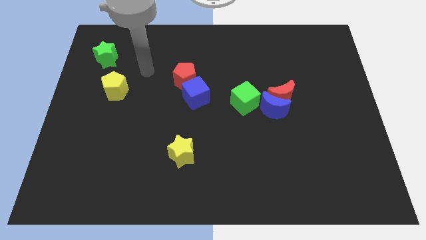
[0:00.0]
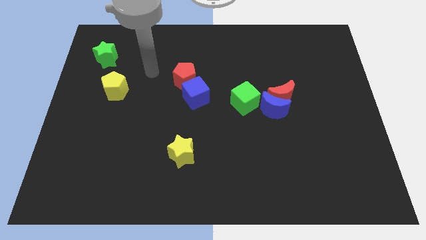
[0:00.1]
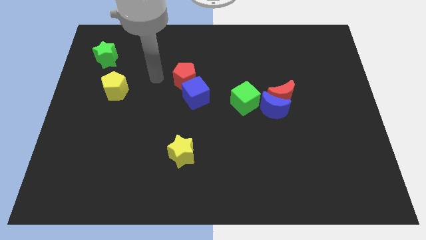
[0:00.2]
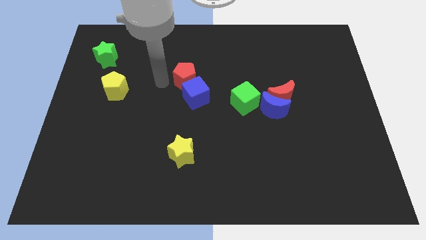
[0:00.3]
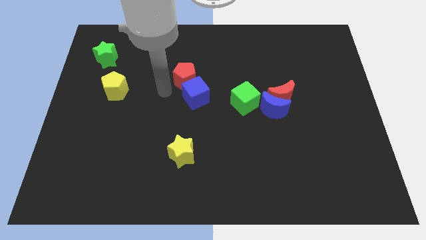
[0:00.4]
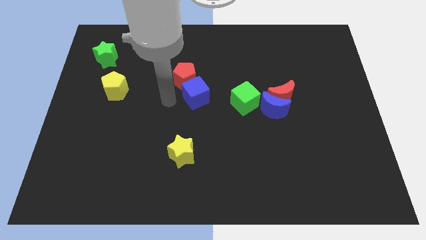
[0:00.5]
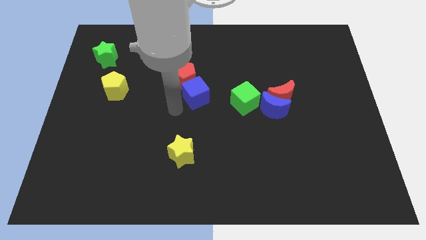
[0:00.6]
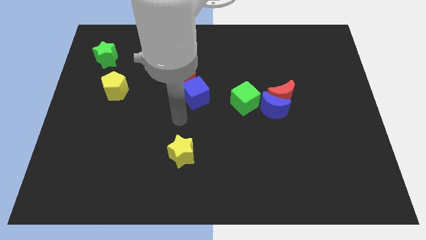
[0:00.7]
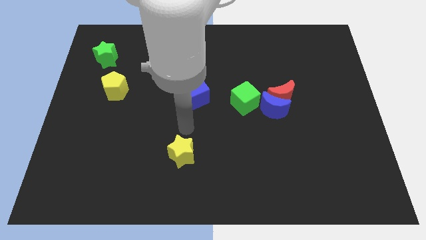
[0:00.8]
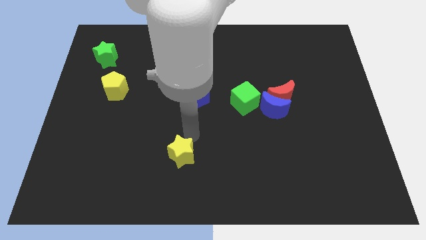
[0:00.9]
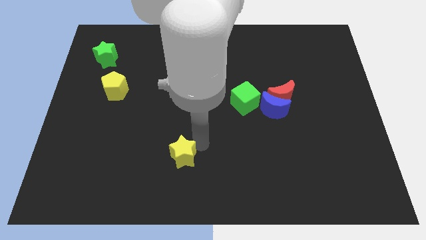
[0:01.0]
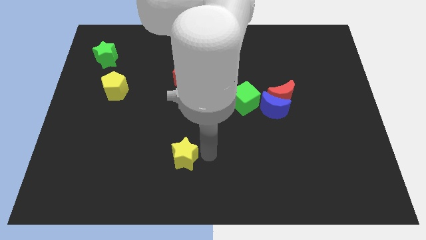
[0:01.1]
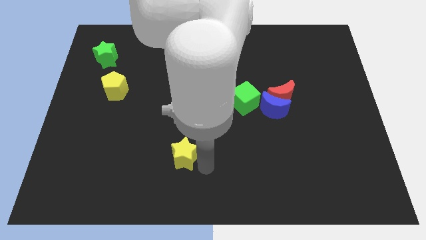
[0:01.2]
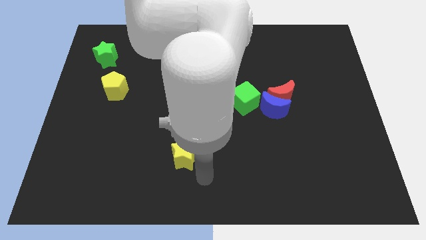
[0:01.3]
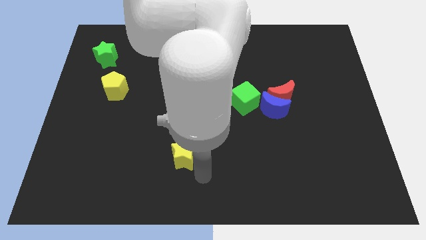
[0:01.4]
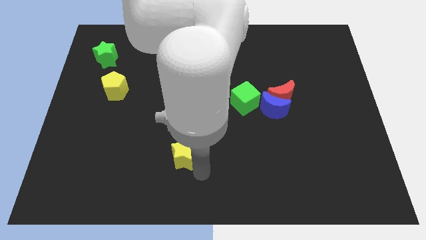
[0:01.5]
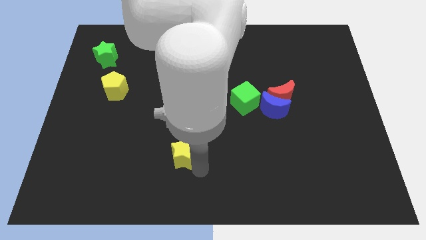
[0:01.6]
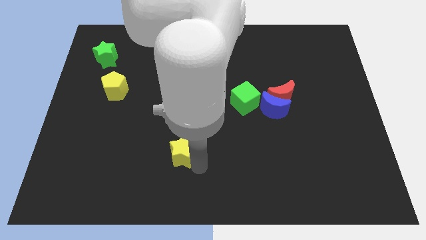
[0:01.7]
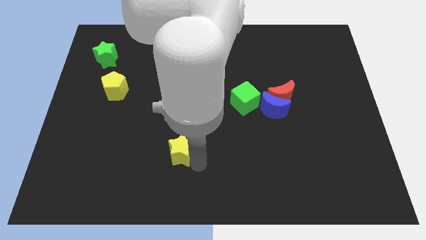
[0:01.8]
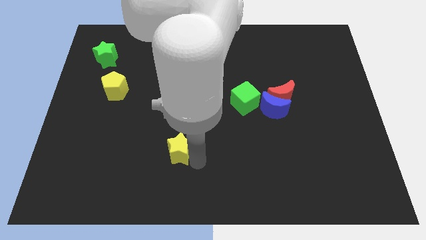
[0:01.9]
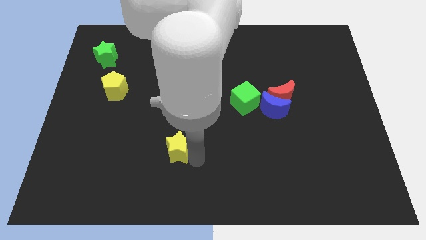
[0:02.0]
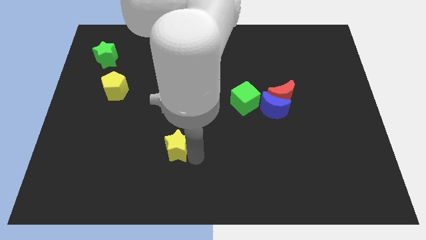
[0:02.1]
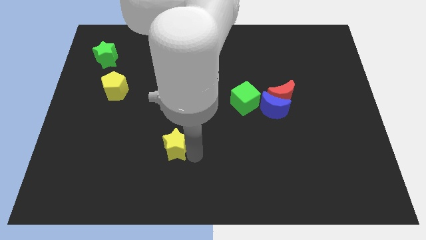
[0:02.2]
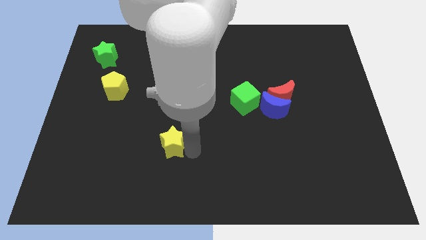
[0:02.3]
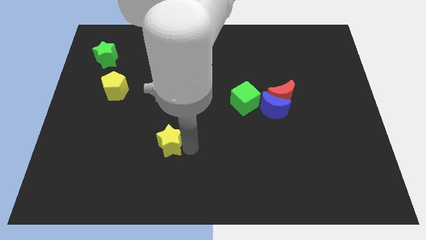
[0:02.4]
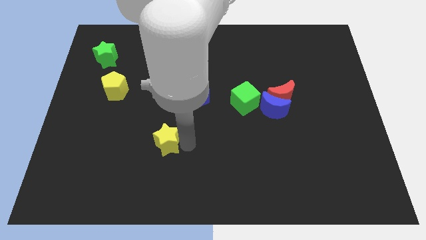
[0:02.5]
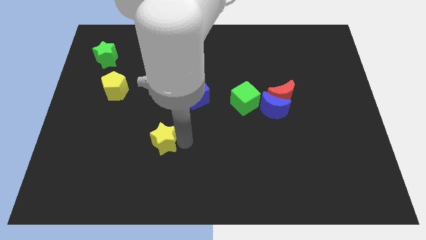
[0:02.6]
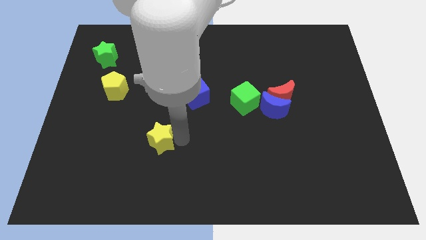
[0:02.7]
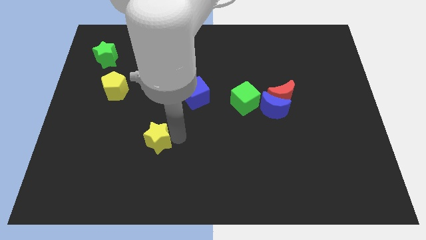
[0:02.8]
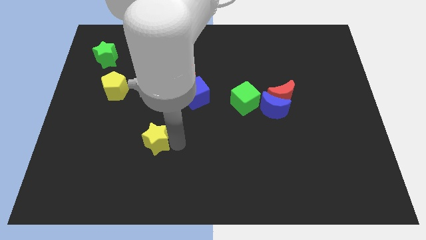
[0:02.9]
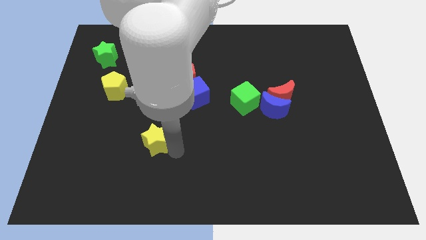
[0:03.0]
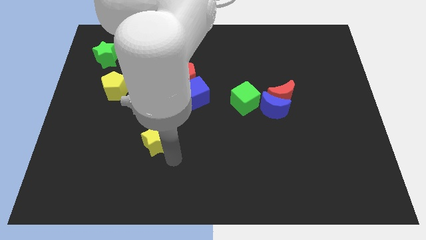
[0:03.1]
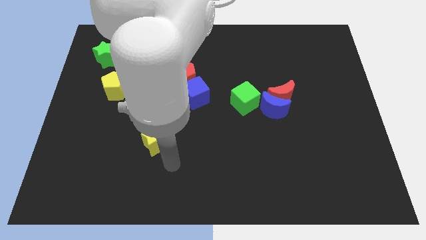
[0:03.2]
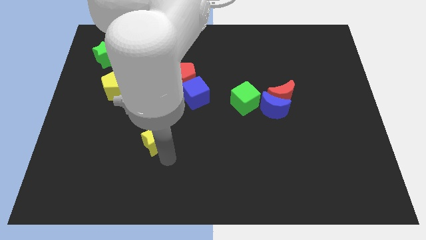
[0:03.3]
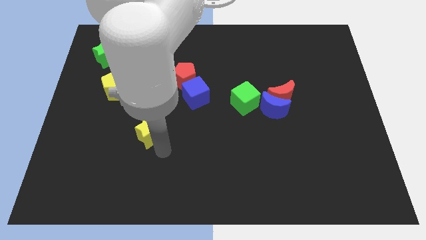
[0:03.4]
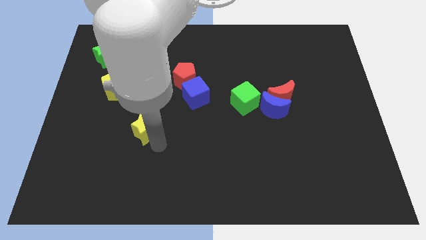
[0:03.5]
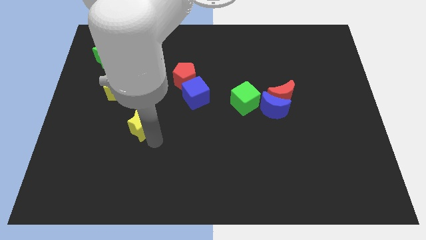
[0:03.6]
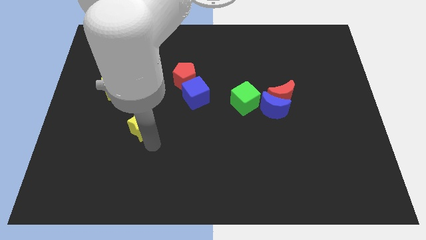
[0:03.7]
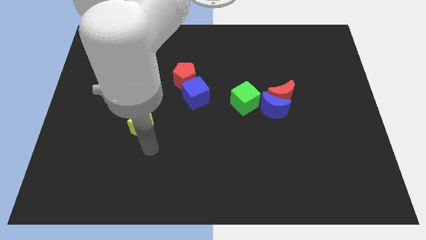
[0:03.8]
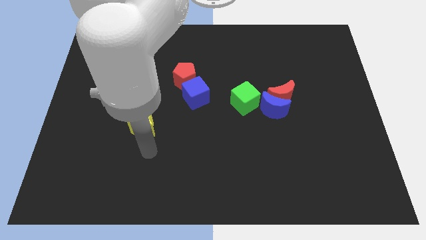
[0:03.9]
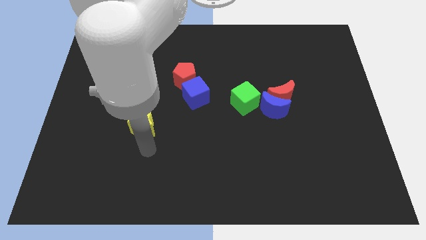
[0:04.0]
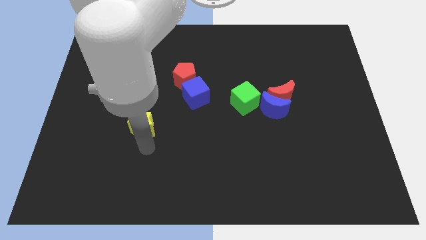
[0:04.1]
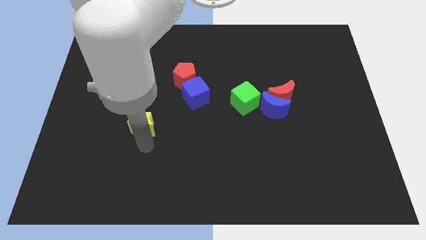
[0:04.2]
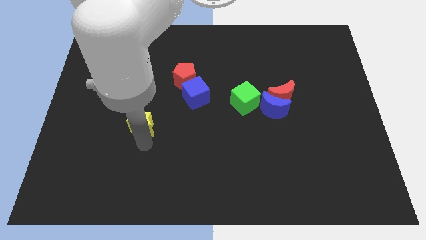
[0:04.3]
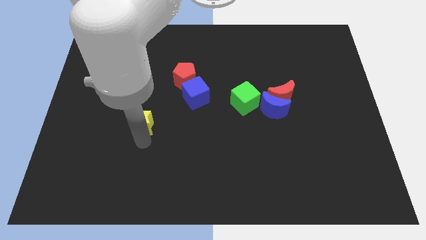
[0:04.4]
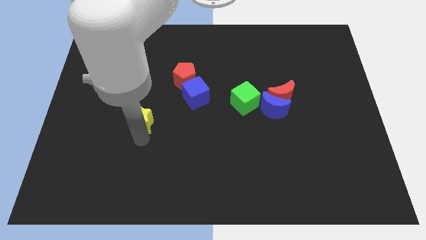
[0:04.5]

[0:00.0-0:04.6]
push the yellow star to the bottom right of the yellow pentagon

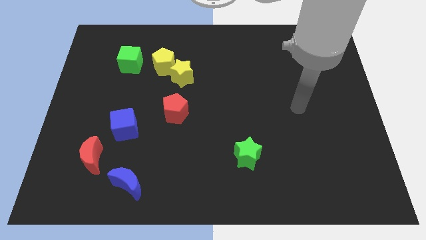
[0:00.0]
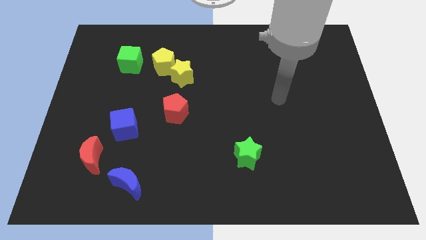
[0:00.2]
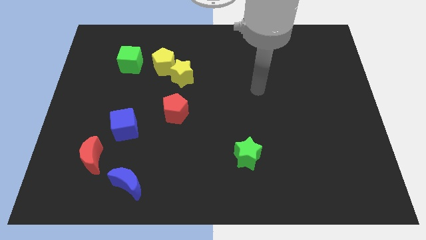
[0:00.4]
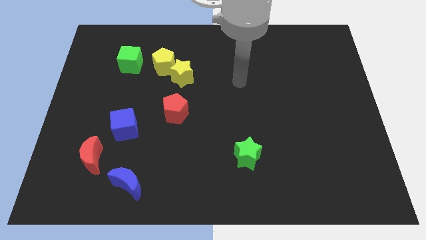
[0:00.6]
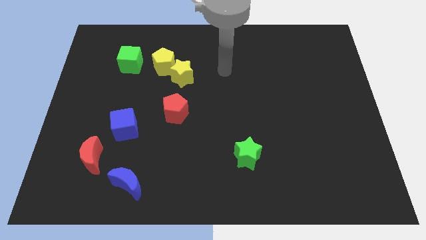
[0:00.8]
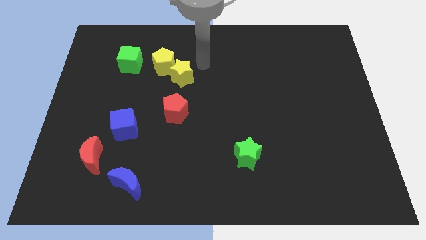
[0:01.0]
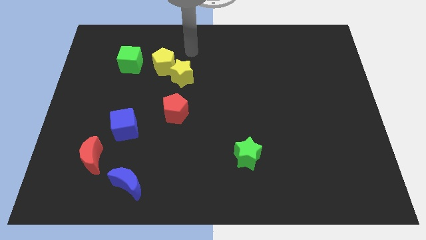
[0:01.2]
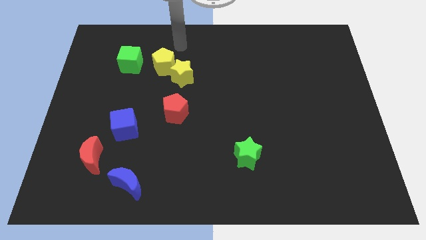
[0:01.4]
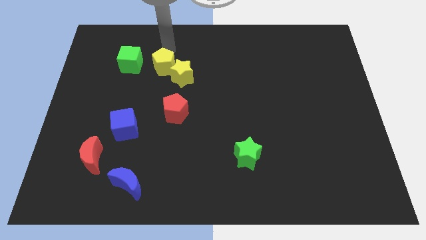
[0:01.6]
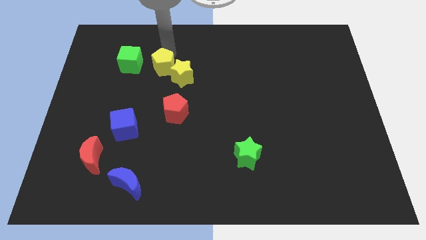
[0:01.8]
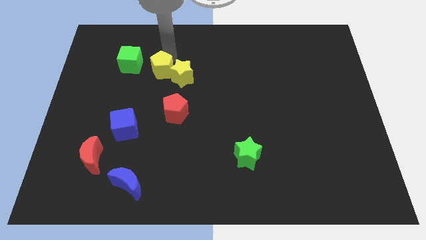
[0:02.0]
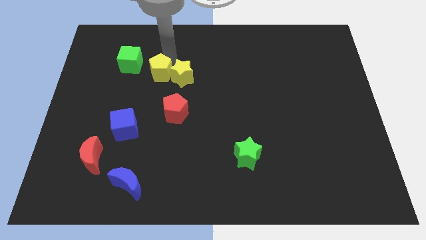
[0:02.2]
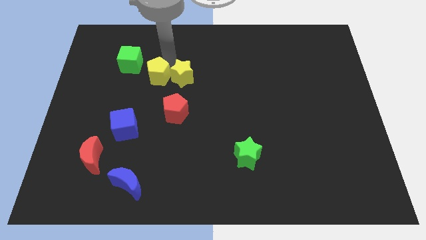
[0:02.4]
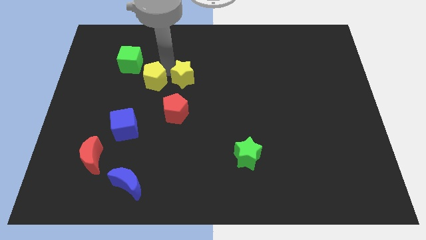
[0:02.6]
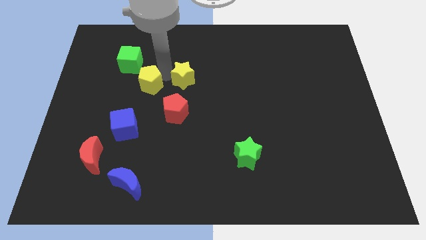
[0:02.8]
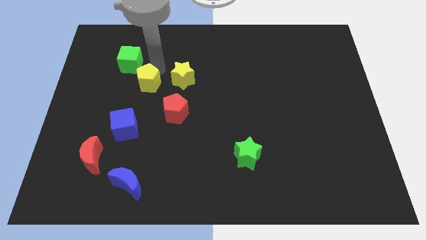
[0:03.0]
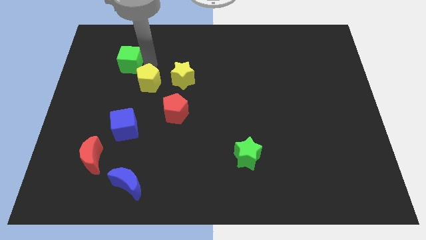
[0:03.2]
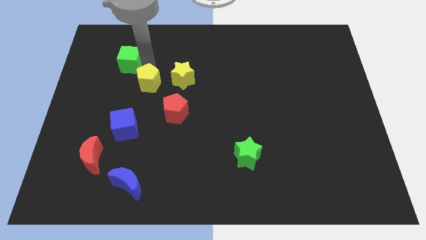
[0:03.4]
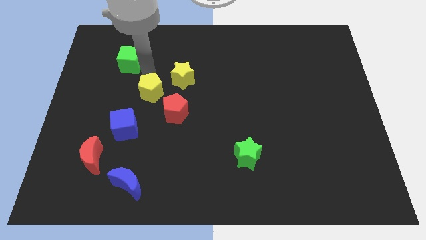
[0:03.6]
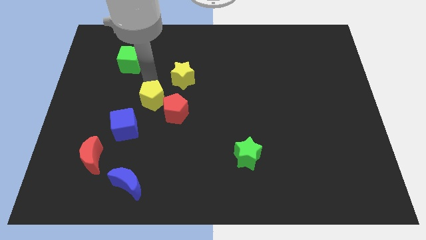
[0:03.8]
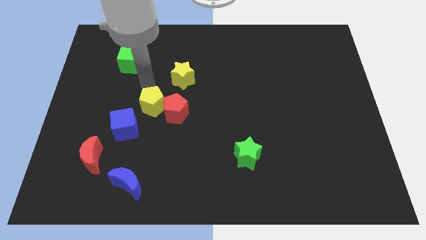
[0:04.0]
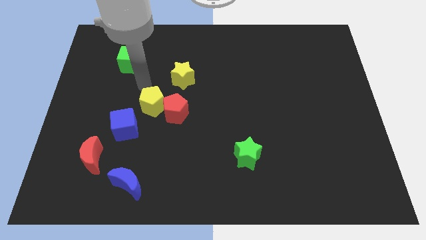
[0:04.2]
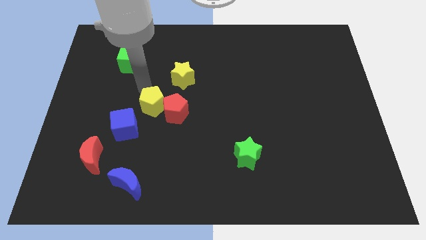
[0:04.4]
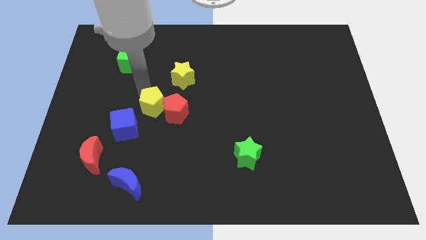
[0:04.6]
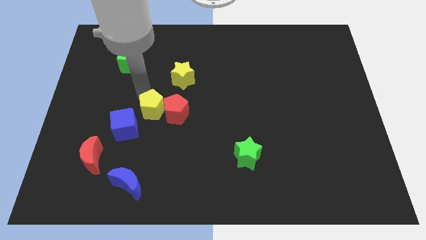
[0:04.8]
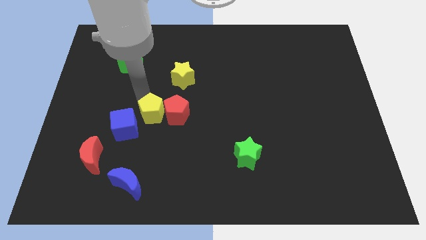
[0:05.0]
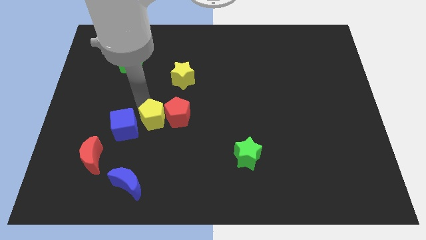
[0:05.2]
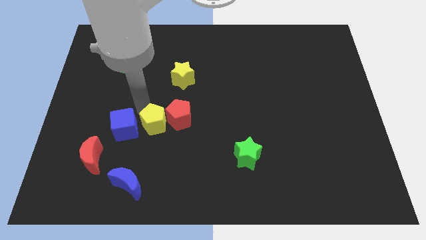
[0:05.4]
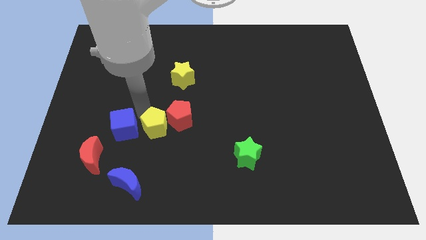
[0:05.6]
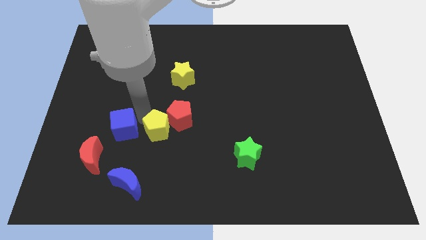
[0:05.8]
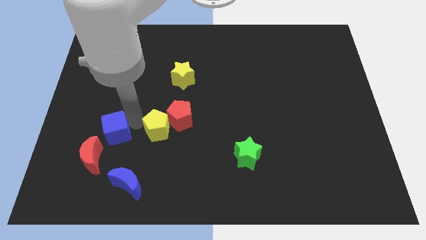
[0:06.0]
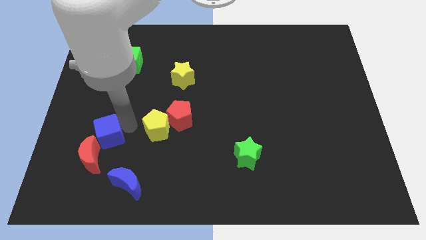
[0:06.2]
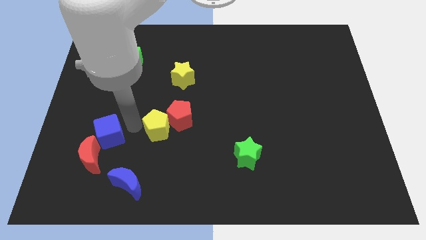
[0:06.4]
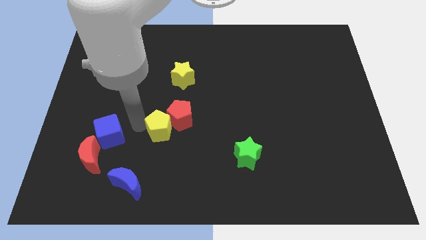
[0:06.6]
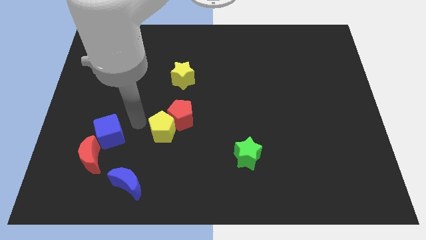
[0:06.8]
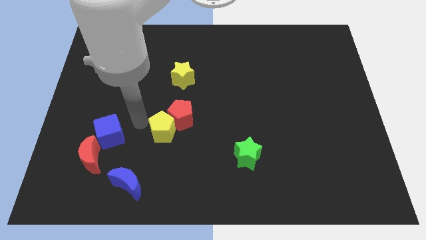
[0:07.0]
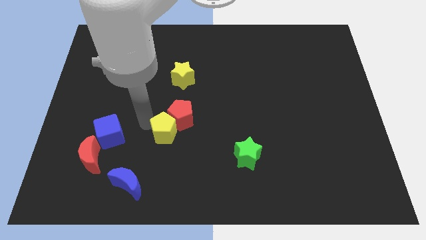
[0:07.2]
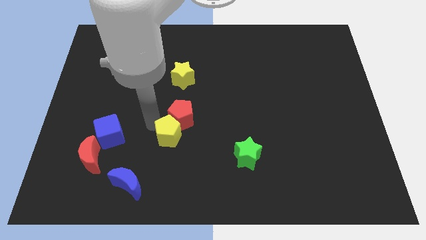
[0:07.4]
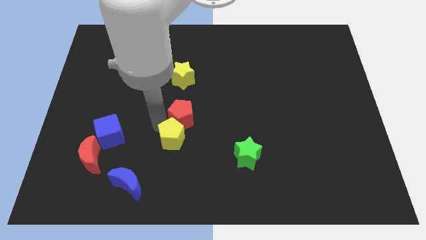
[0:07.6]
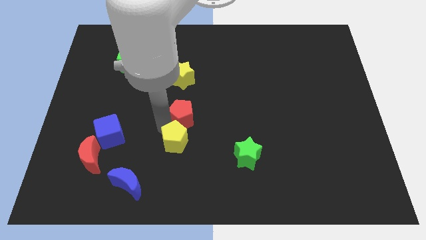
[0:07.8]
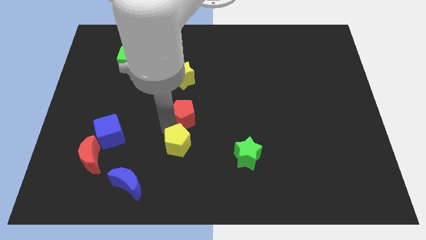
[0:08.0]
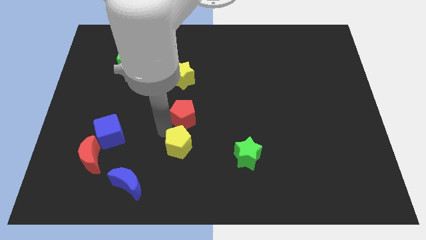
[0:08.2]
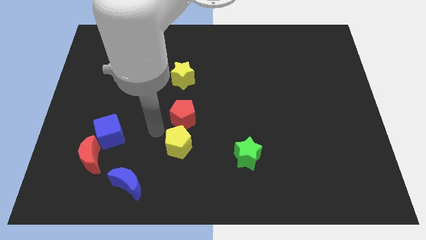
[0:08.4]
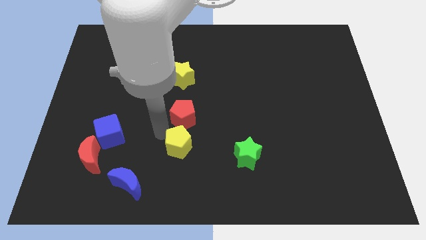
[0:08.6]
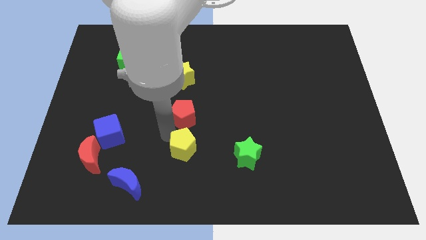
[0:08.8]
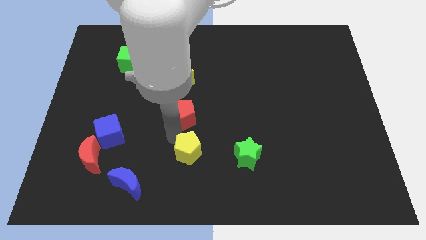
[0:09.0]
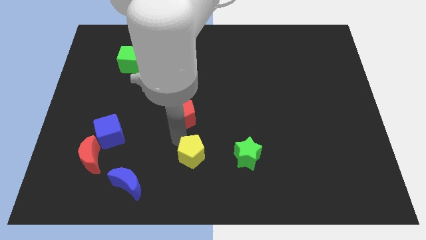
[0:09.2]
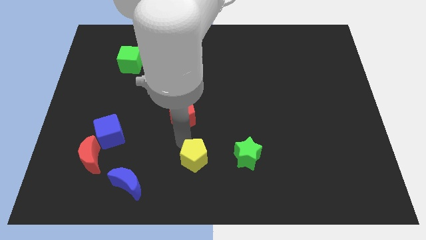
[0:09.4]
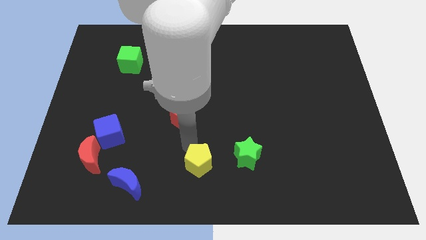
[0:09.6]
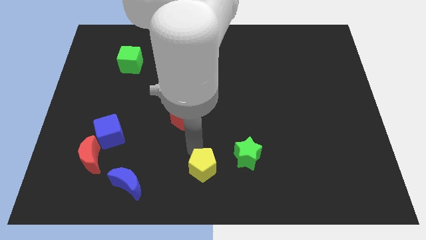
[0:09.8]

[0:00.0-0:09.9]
push the yellow pentagon diagonally down and to the left of the green star
